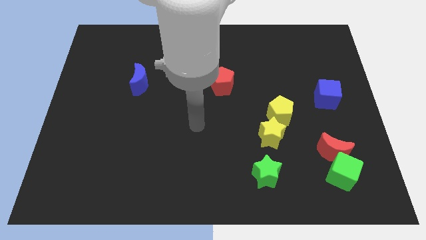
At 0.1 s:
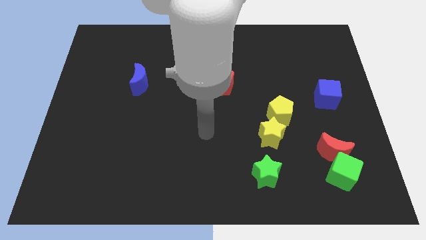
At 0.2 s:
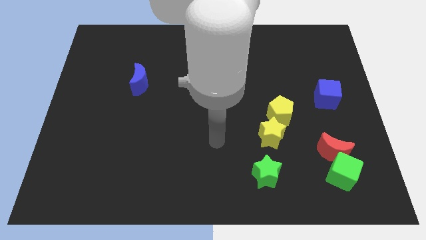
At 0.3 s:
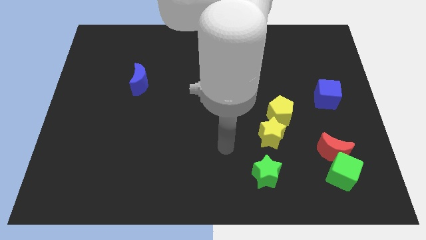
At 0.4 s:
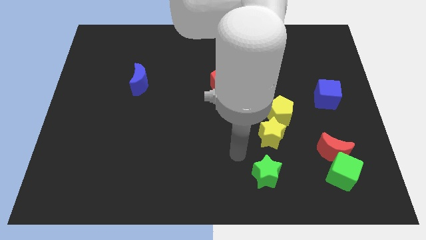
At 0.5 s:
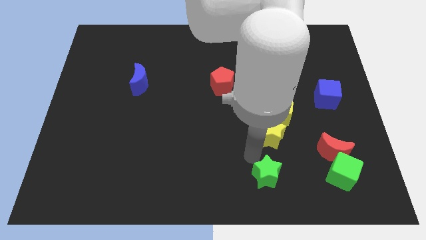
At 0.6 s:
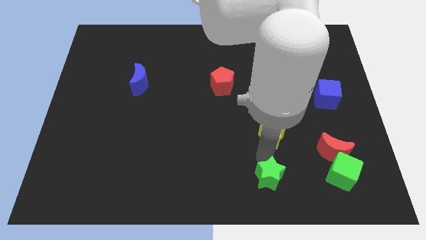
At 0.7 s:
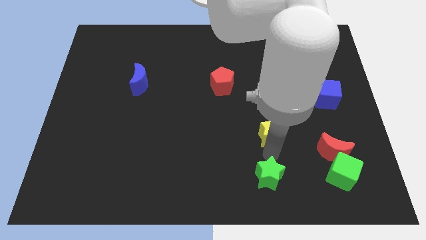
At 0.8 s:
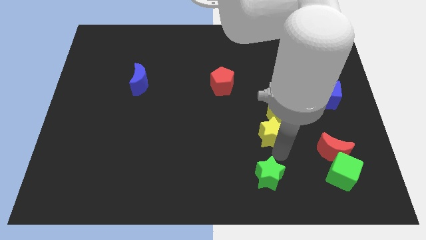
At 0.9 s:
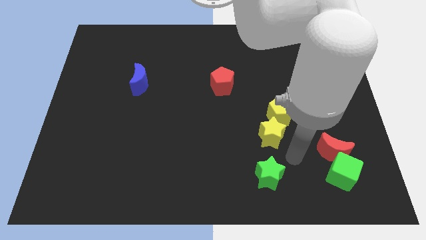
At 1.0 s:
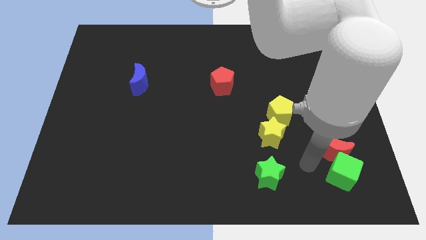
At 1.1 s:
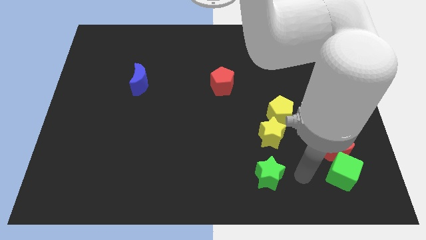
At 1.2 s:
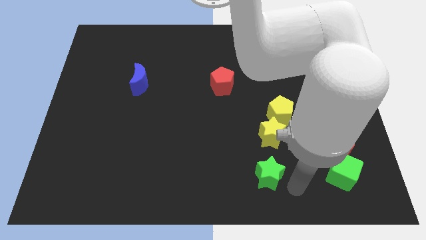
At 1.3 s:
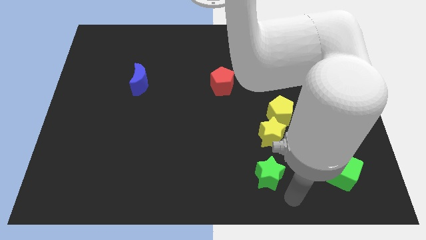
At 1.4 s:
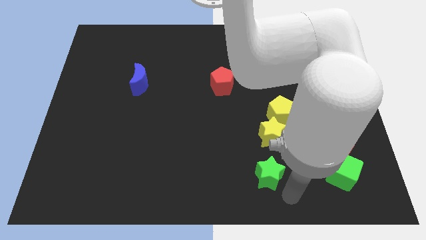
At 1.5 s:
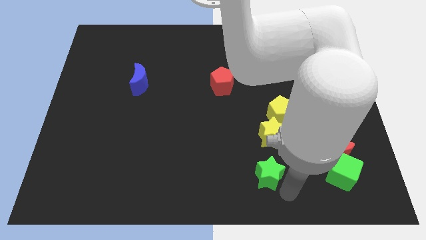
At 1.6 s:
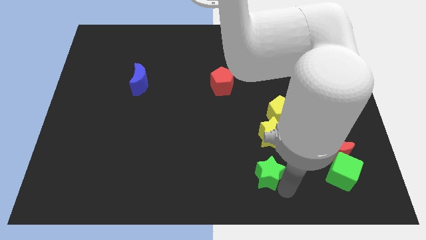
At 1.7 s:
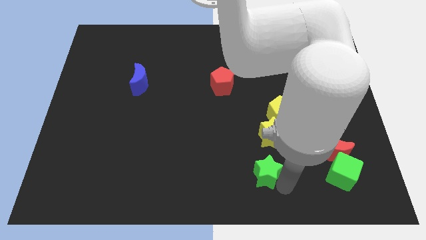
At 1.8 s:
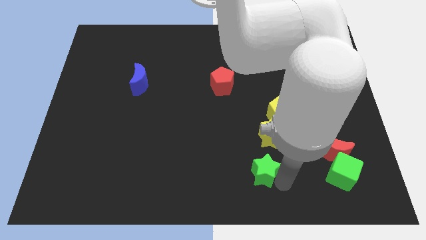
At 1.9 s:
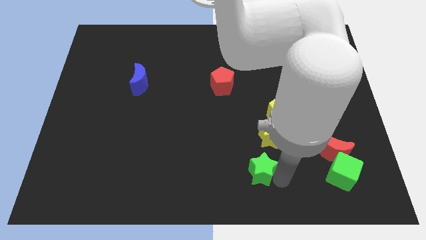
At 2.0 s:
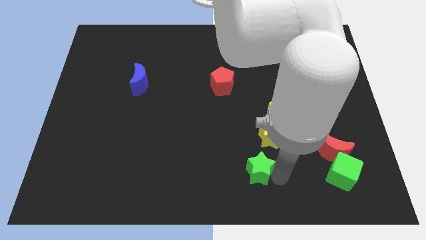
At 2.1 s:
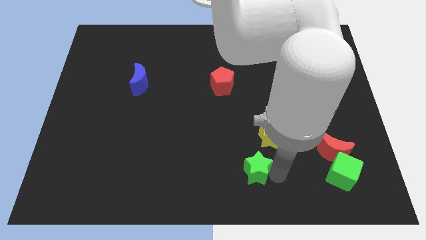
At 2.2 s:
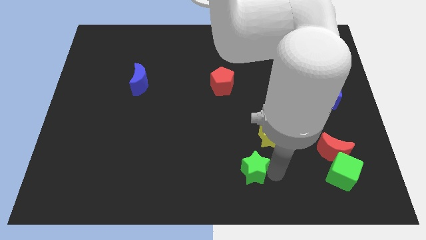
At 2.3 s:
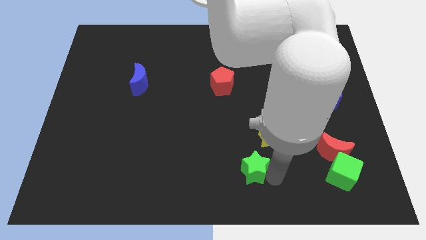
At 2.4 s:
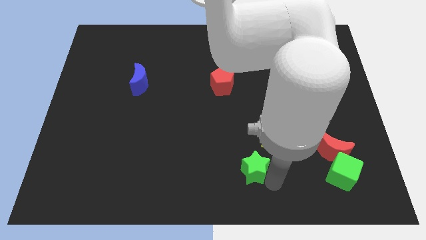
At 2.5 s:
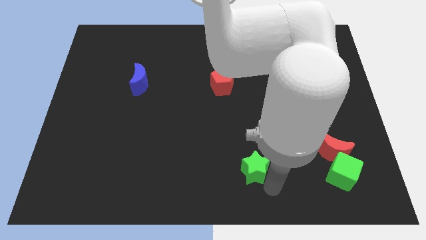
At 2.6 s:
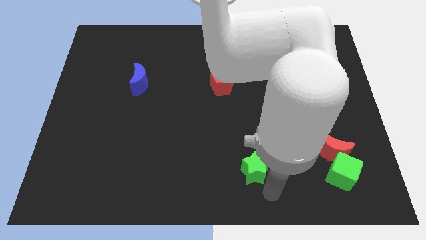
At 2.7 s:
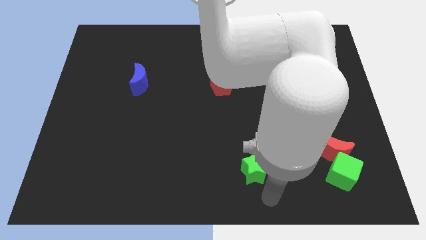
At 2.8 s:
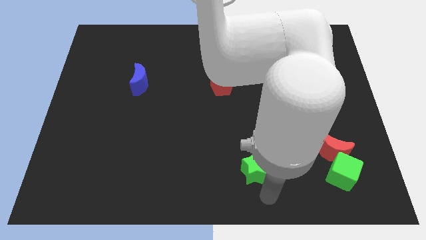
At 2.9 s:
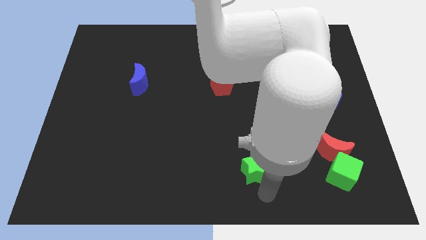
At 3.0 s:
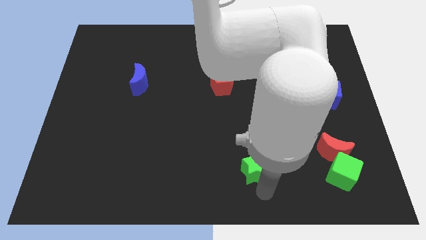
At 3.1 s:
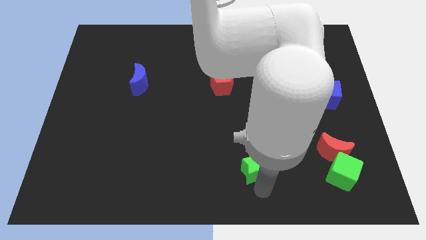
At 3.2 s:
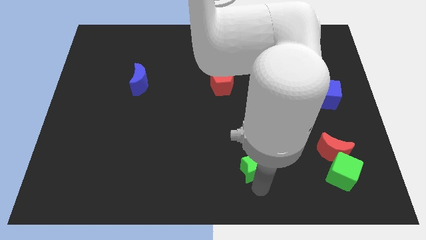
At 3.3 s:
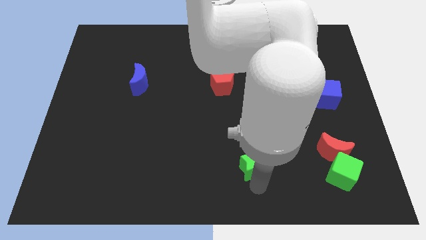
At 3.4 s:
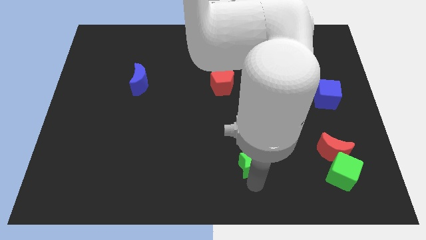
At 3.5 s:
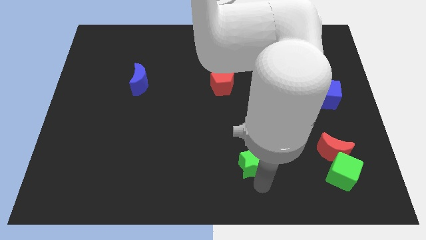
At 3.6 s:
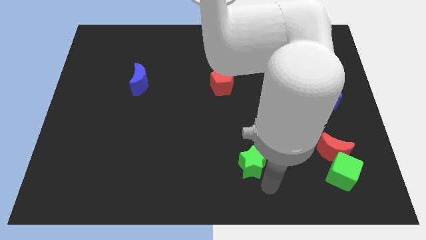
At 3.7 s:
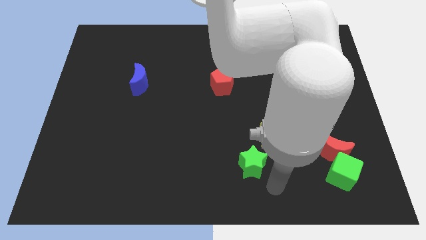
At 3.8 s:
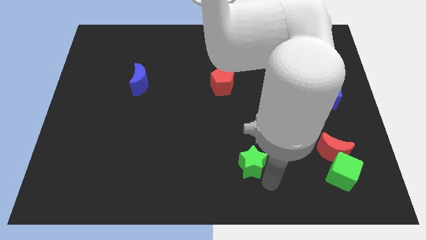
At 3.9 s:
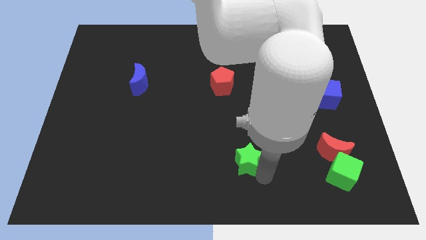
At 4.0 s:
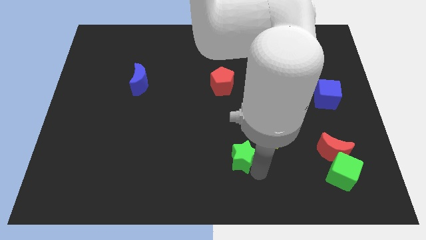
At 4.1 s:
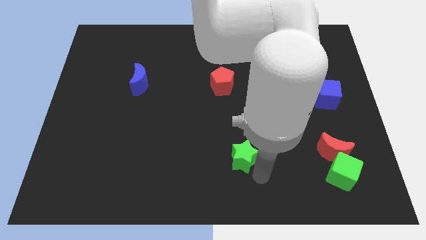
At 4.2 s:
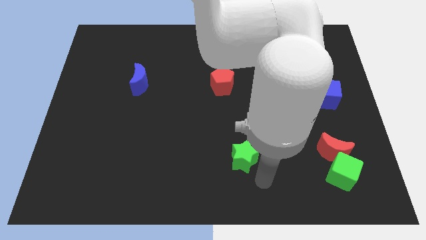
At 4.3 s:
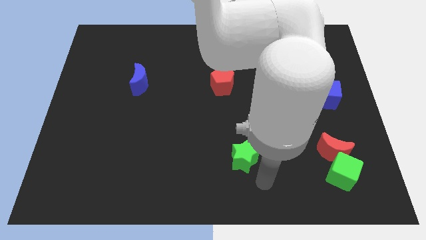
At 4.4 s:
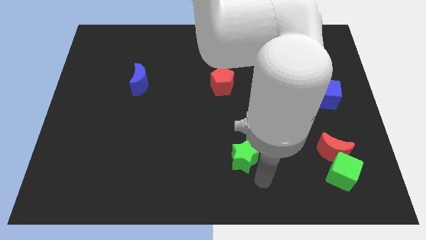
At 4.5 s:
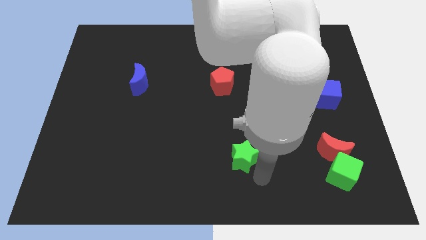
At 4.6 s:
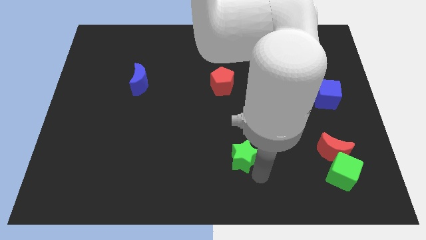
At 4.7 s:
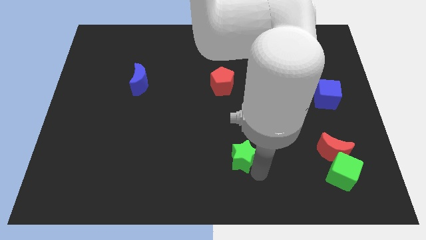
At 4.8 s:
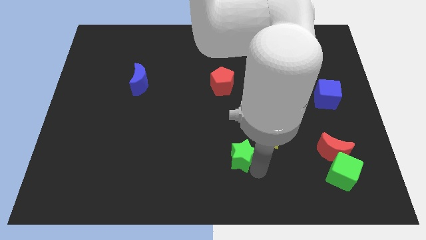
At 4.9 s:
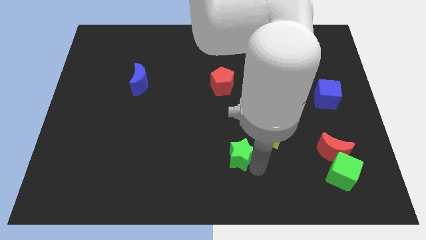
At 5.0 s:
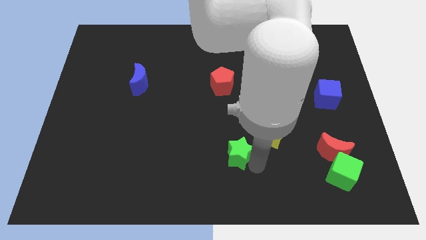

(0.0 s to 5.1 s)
move the green star up and then left somewhat

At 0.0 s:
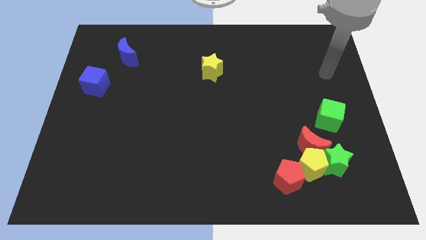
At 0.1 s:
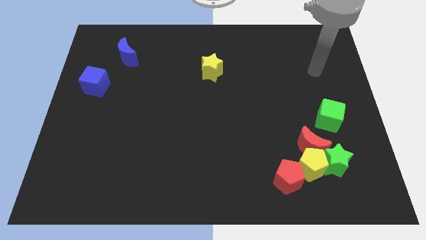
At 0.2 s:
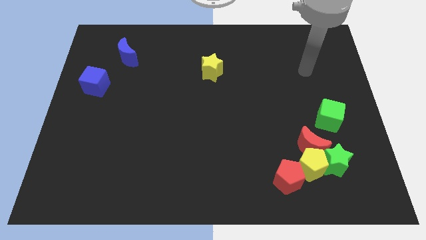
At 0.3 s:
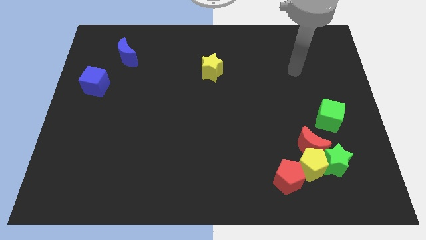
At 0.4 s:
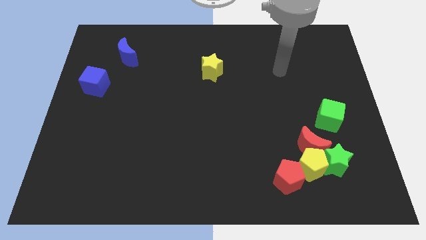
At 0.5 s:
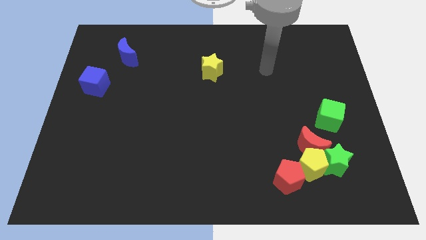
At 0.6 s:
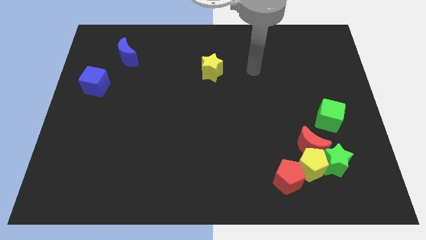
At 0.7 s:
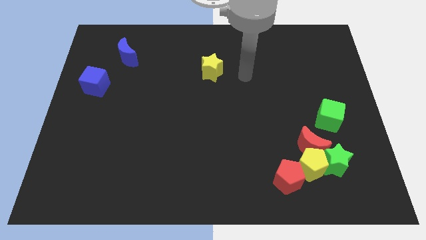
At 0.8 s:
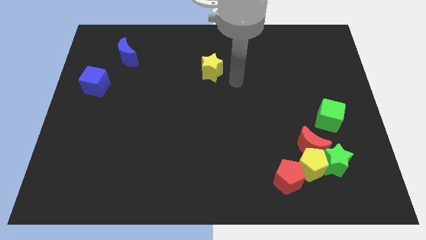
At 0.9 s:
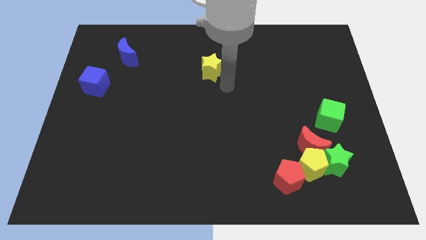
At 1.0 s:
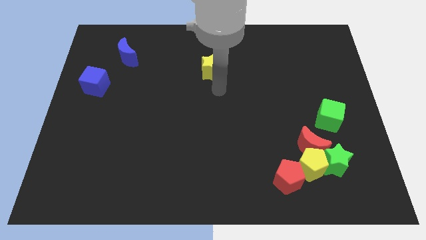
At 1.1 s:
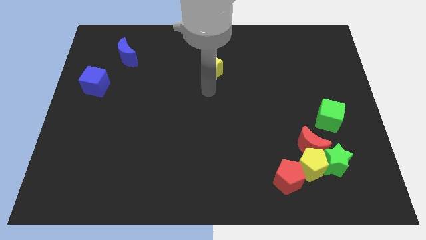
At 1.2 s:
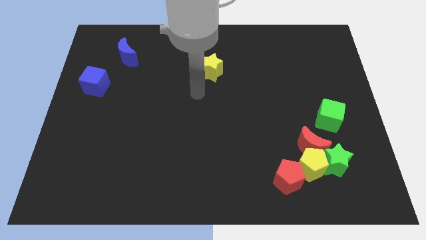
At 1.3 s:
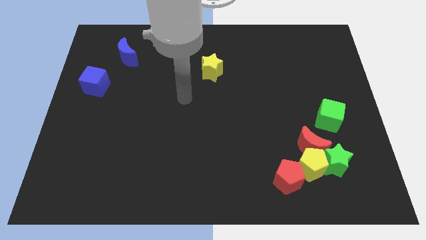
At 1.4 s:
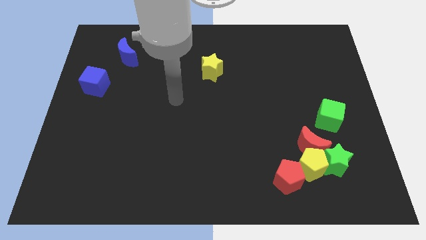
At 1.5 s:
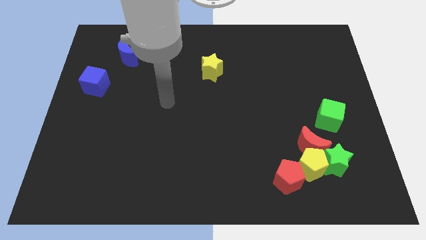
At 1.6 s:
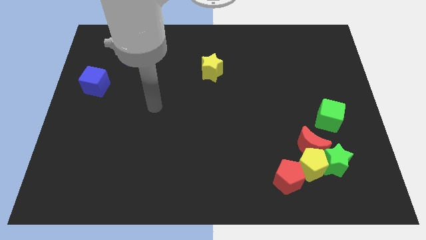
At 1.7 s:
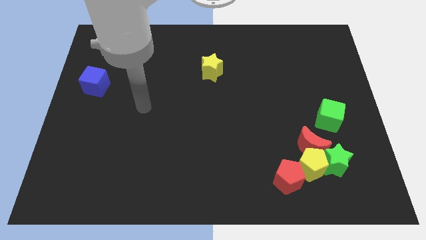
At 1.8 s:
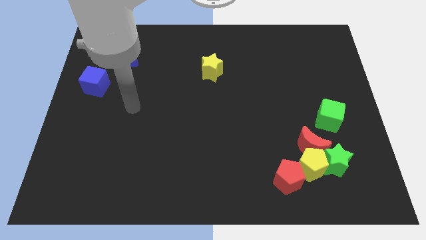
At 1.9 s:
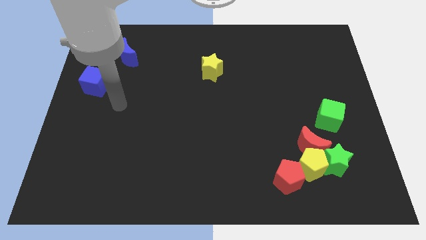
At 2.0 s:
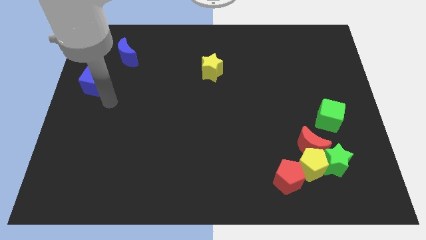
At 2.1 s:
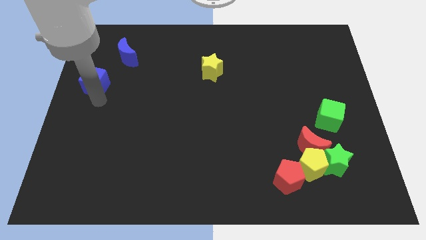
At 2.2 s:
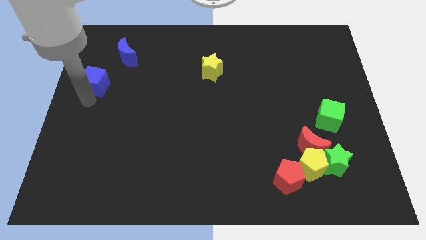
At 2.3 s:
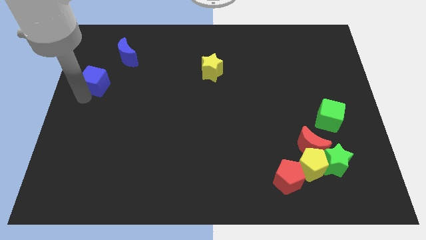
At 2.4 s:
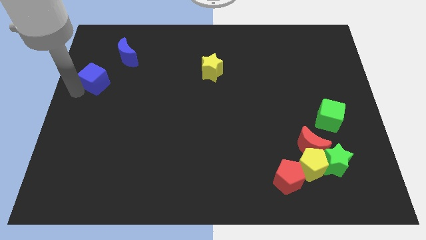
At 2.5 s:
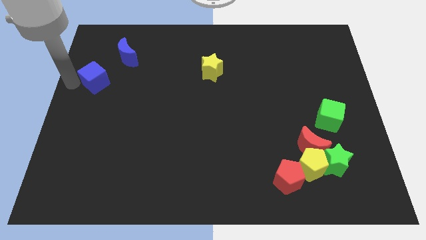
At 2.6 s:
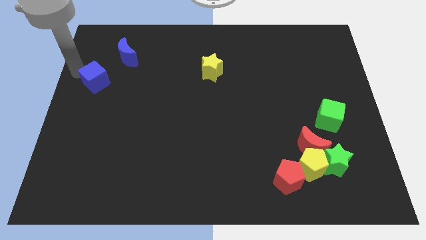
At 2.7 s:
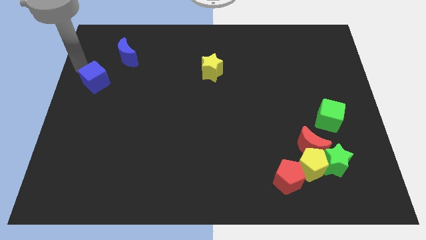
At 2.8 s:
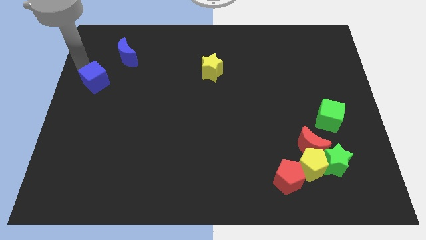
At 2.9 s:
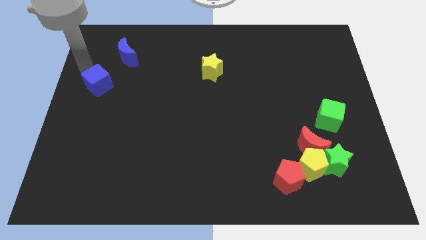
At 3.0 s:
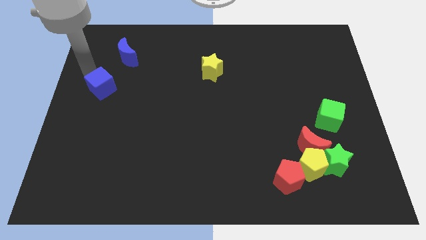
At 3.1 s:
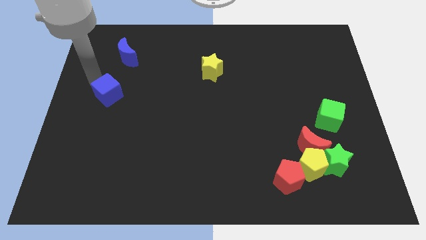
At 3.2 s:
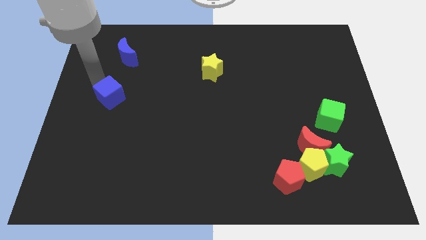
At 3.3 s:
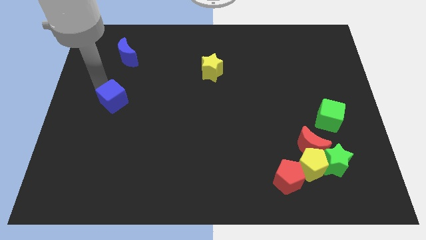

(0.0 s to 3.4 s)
slightly slide the blue cube downwards and to the right
